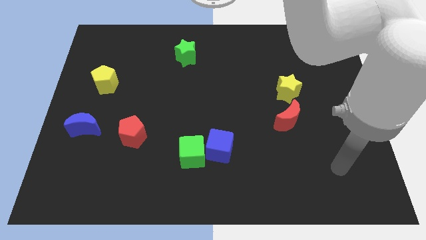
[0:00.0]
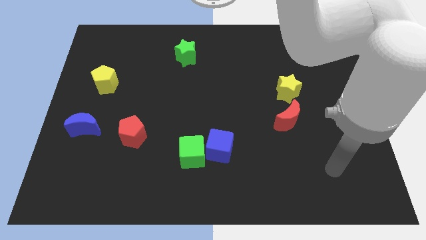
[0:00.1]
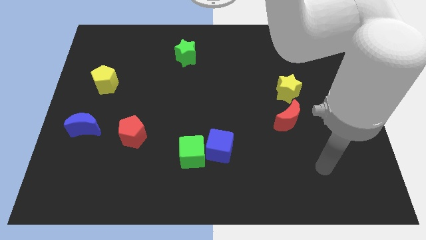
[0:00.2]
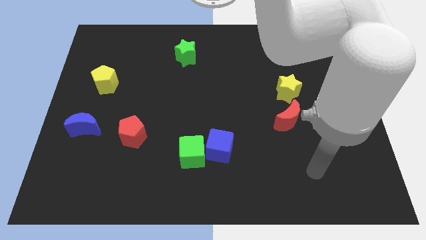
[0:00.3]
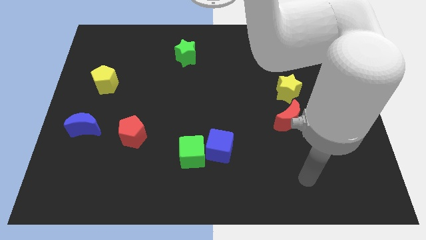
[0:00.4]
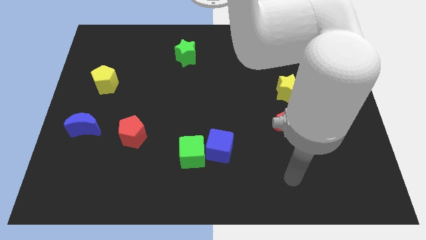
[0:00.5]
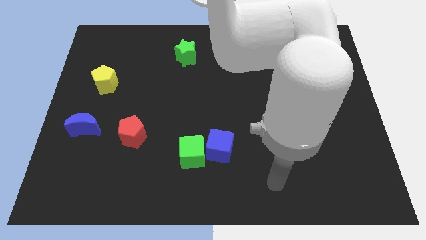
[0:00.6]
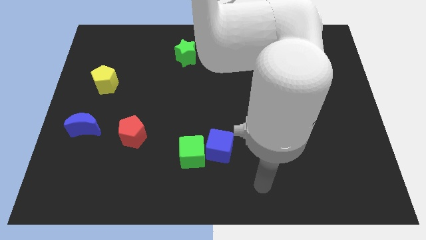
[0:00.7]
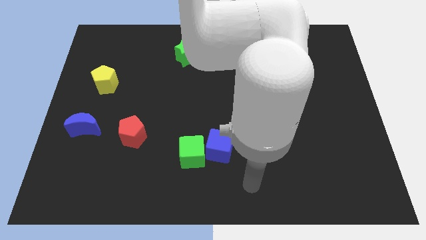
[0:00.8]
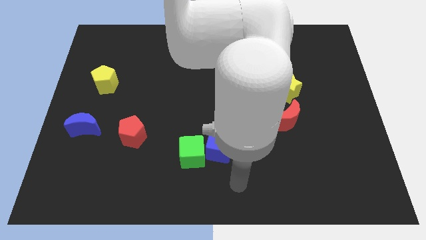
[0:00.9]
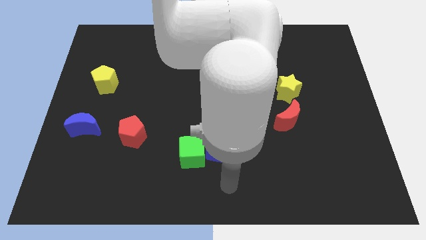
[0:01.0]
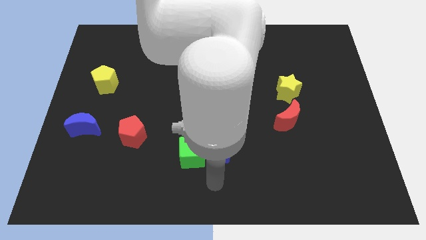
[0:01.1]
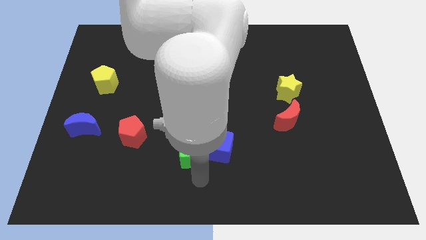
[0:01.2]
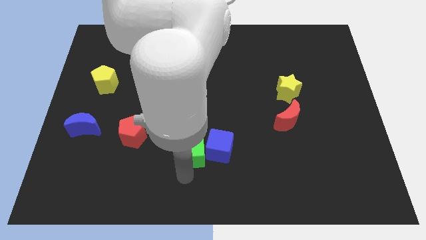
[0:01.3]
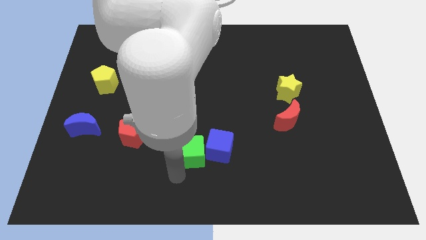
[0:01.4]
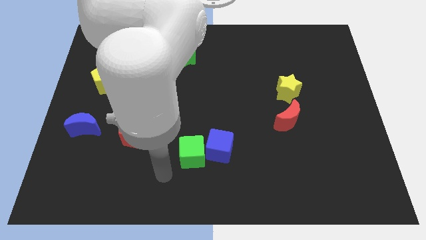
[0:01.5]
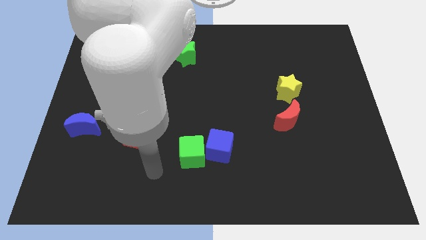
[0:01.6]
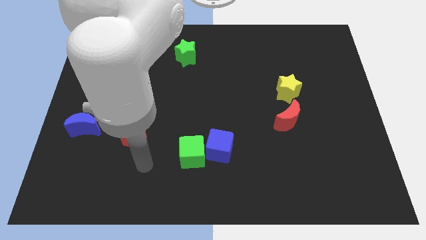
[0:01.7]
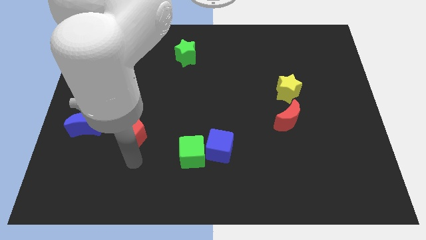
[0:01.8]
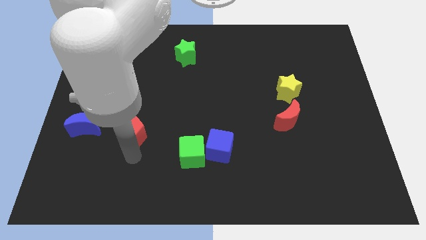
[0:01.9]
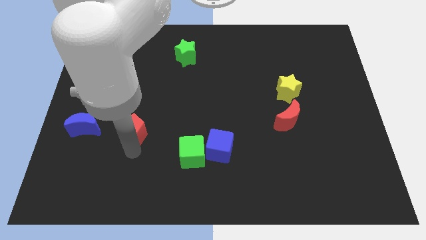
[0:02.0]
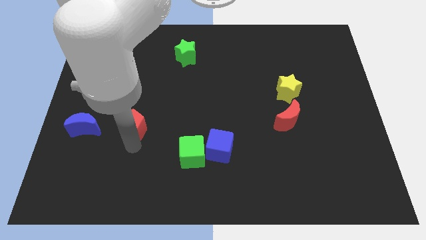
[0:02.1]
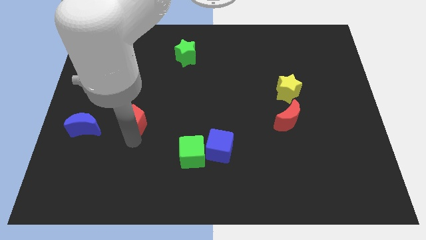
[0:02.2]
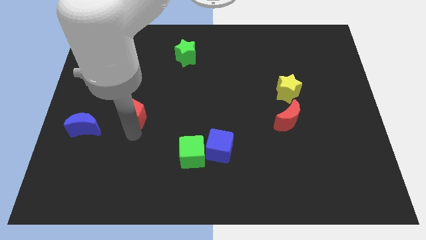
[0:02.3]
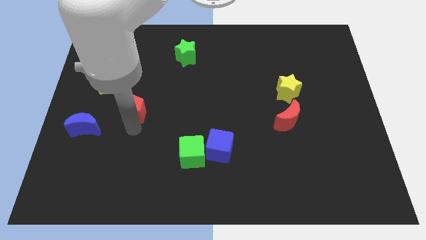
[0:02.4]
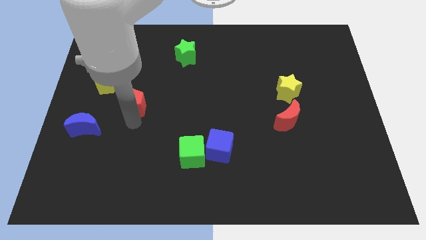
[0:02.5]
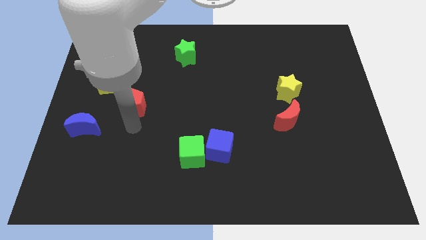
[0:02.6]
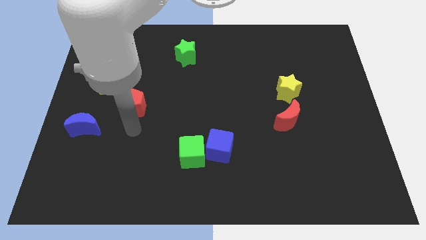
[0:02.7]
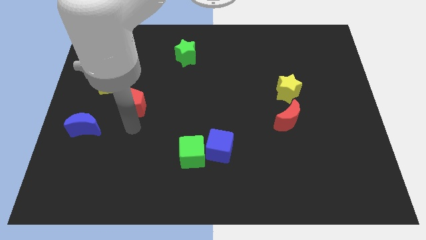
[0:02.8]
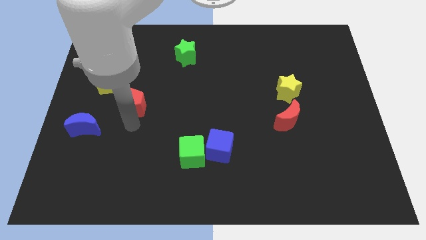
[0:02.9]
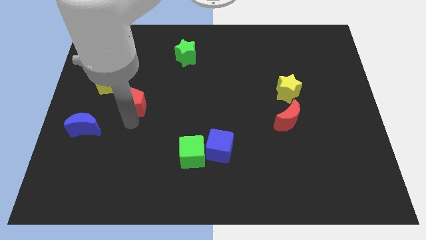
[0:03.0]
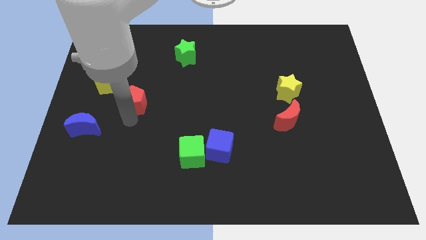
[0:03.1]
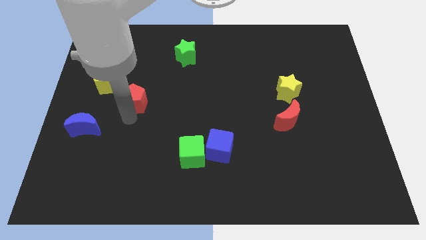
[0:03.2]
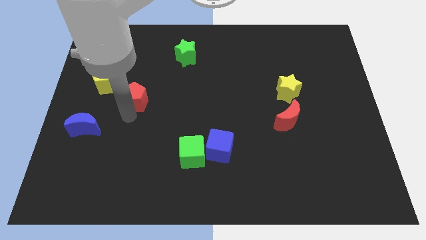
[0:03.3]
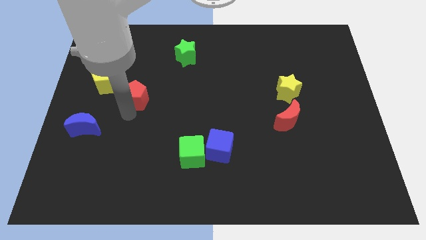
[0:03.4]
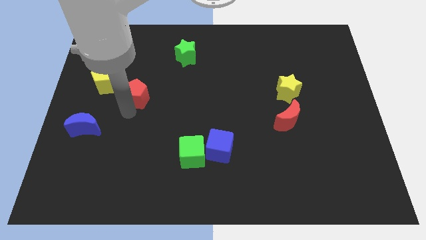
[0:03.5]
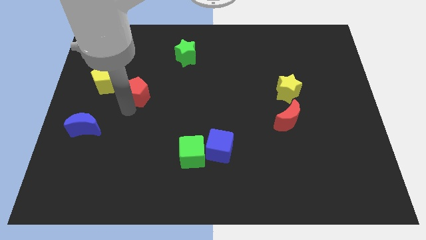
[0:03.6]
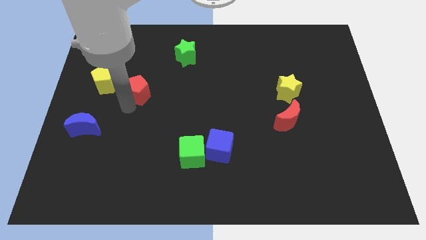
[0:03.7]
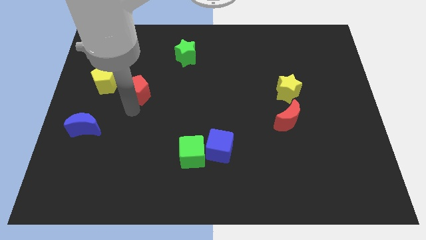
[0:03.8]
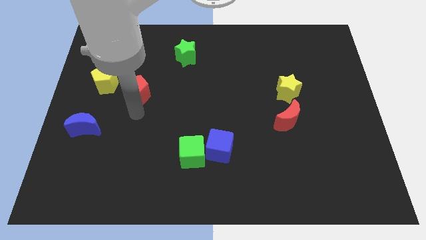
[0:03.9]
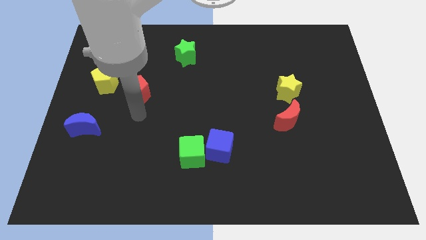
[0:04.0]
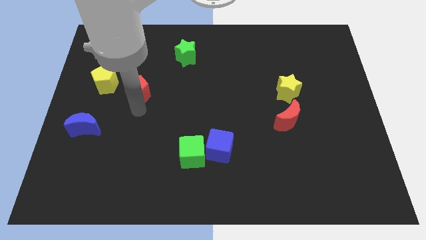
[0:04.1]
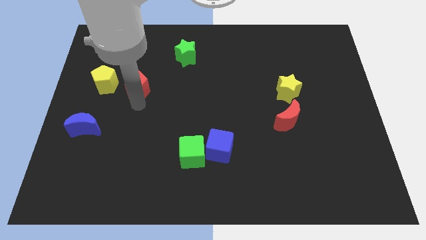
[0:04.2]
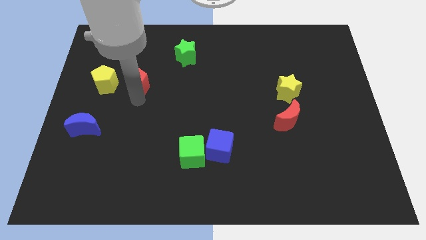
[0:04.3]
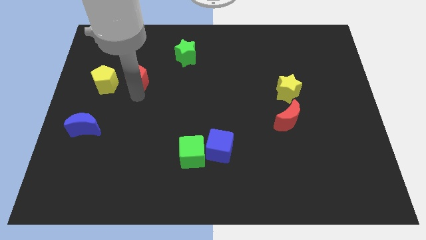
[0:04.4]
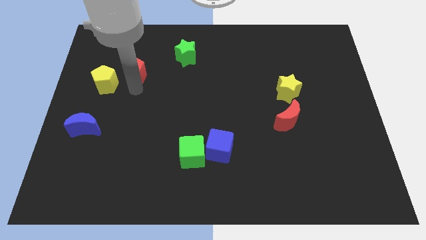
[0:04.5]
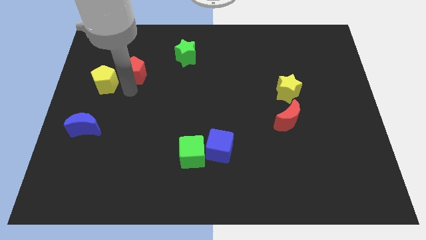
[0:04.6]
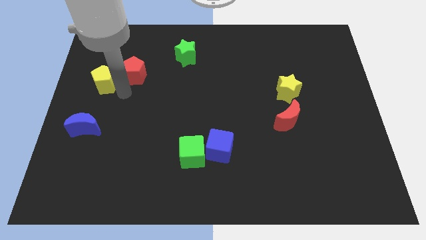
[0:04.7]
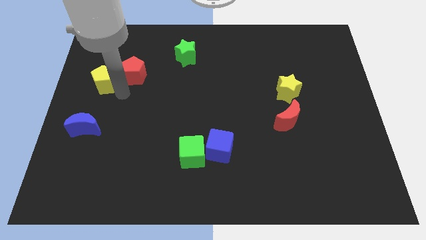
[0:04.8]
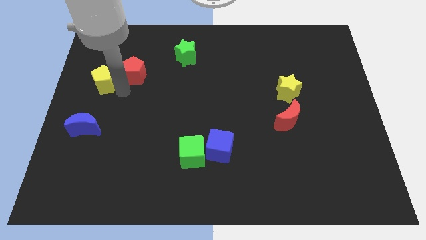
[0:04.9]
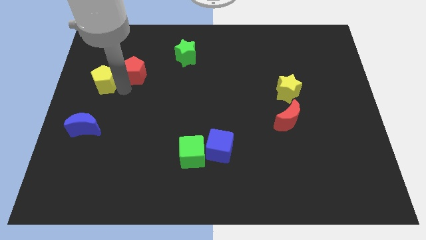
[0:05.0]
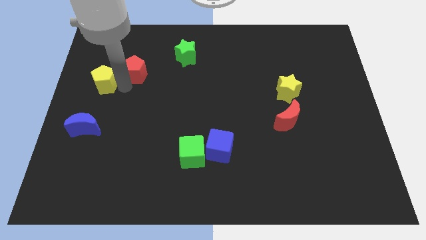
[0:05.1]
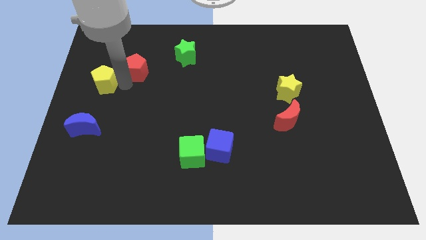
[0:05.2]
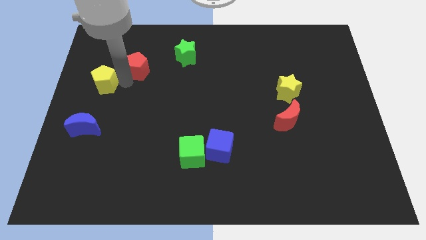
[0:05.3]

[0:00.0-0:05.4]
put the red pentagon to the left of the green star

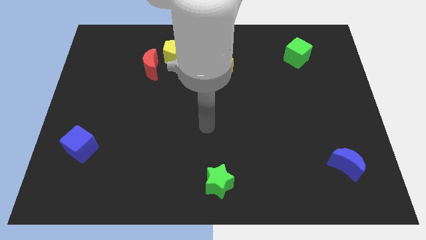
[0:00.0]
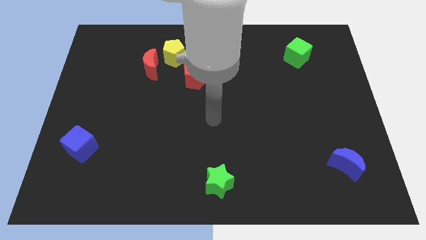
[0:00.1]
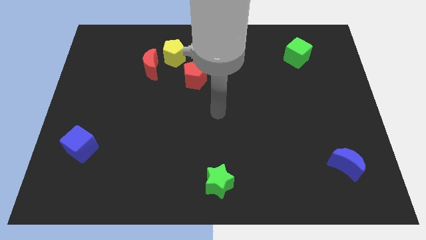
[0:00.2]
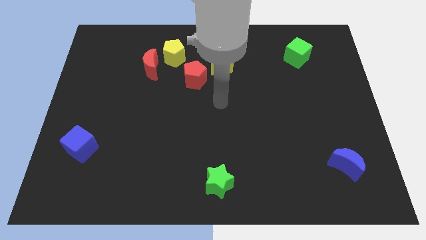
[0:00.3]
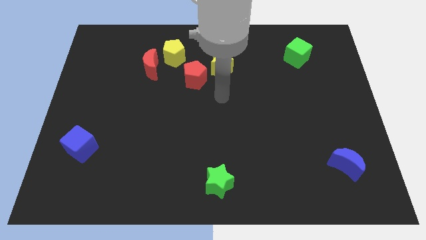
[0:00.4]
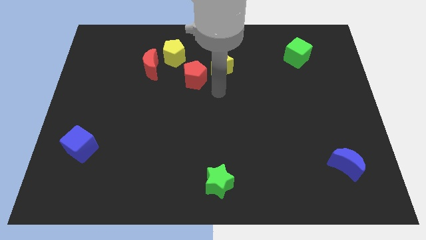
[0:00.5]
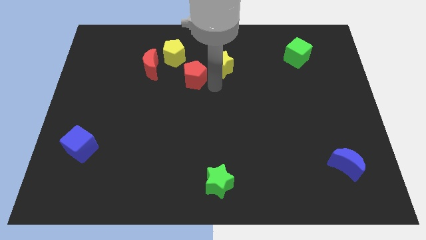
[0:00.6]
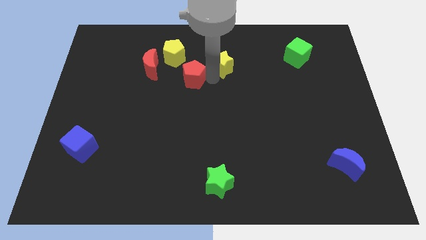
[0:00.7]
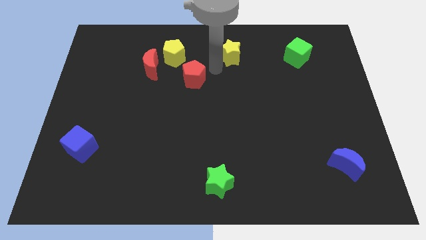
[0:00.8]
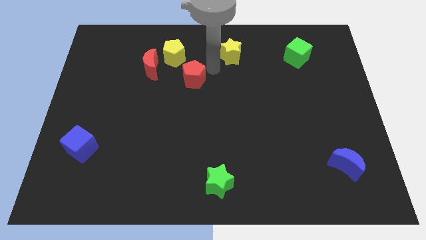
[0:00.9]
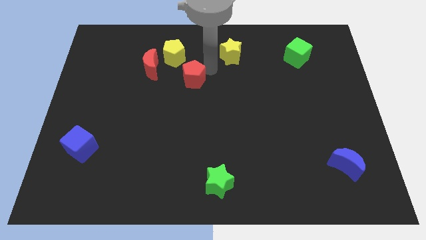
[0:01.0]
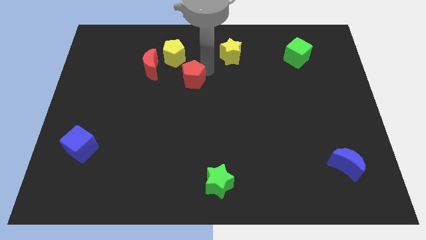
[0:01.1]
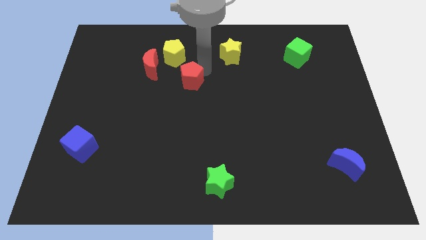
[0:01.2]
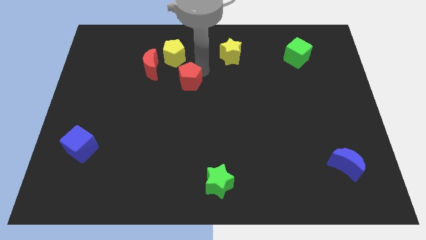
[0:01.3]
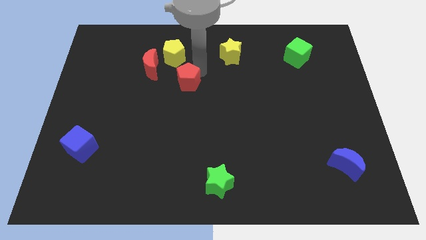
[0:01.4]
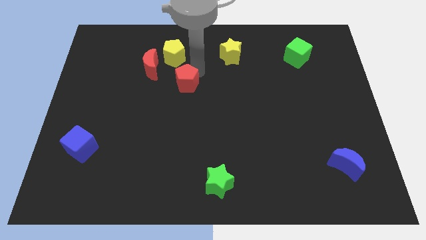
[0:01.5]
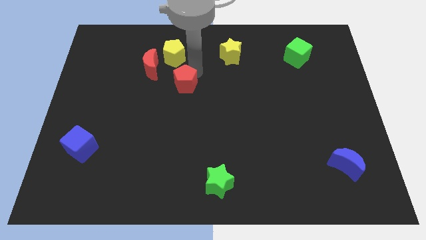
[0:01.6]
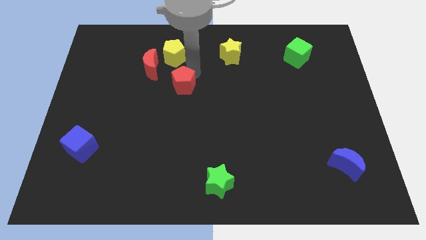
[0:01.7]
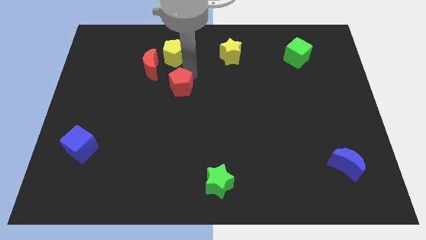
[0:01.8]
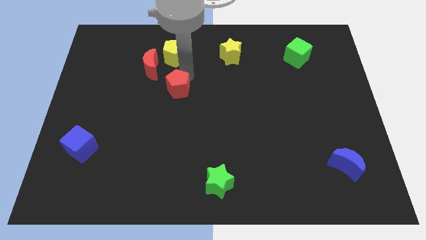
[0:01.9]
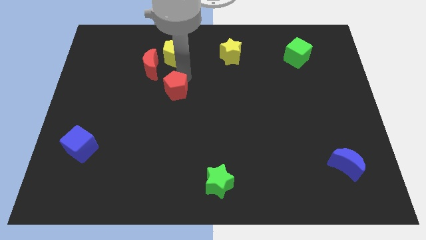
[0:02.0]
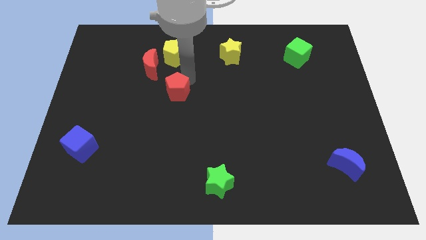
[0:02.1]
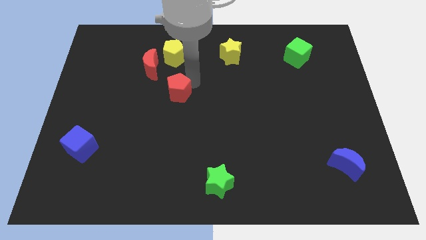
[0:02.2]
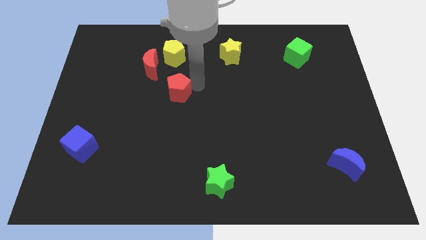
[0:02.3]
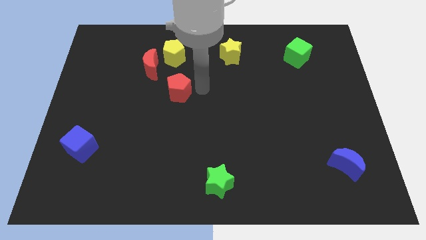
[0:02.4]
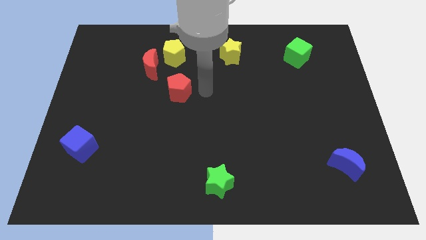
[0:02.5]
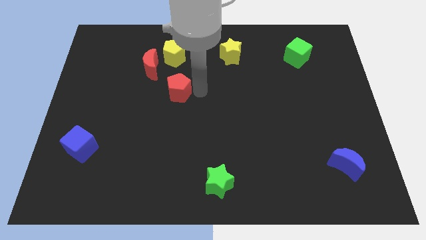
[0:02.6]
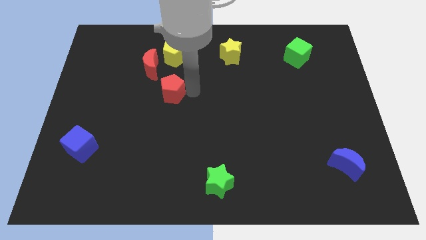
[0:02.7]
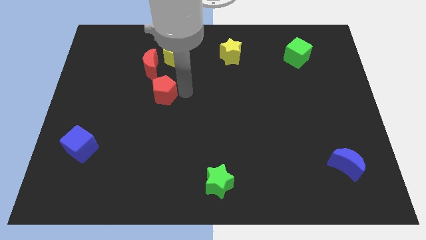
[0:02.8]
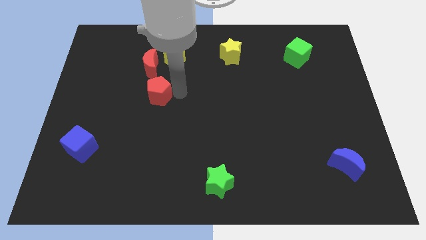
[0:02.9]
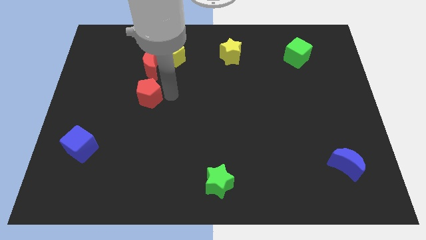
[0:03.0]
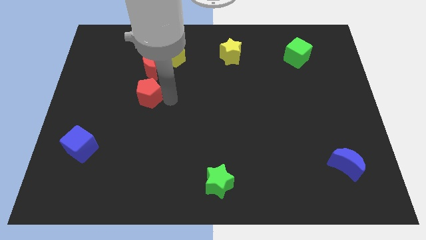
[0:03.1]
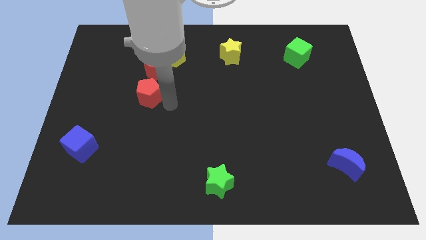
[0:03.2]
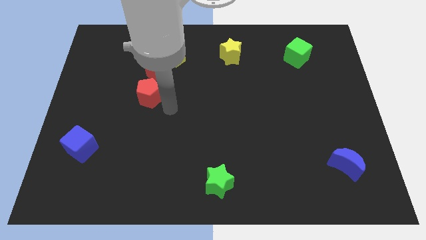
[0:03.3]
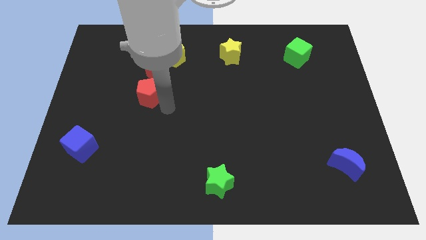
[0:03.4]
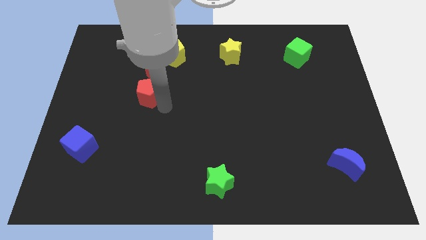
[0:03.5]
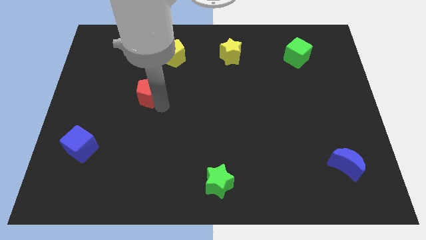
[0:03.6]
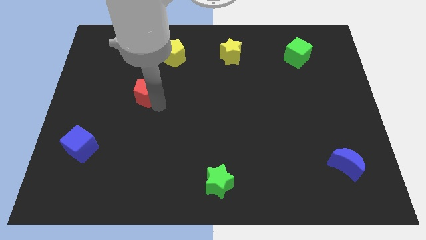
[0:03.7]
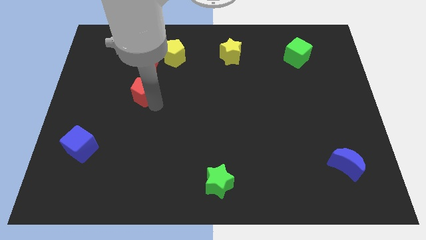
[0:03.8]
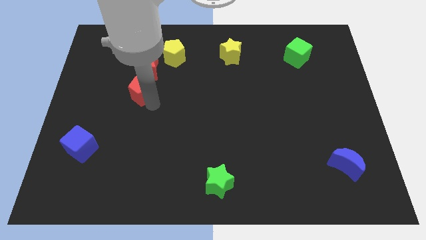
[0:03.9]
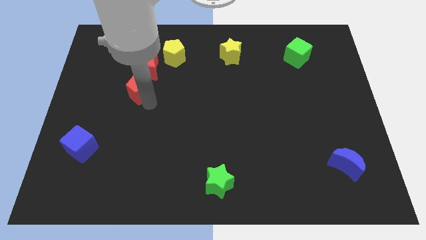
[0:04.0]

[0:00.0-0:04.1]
put the red pentagon to the bottom left of the red moon
